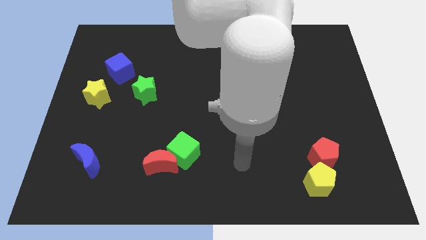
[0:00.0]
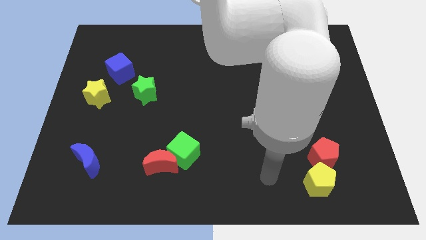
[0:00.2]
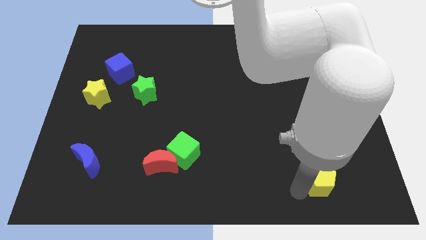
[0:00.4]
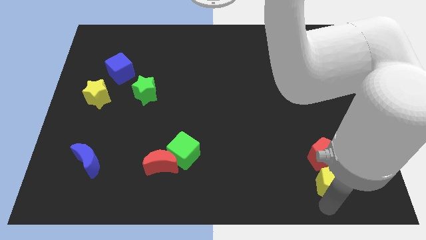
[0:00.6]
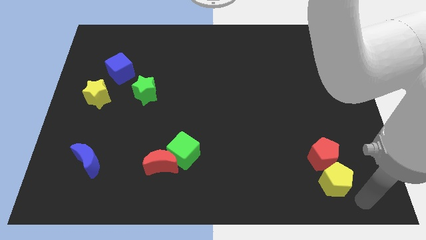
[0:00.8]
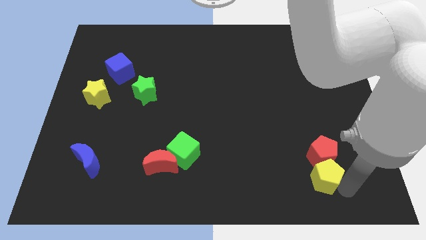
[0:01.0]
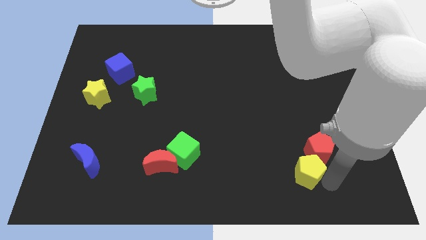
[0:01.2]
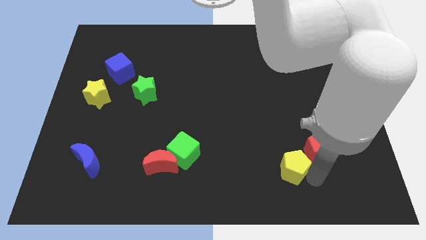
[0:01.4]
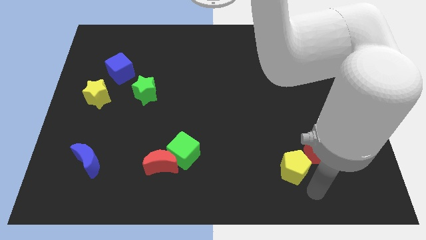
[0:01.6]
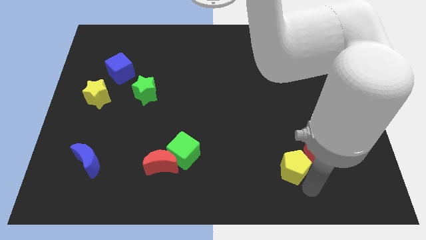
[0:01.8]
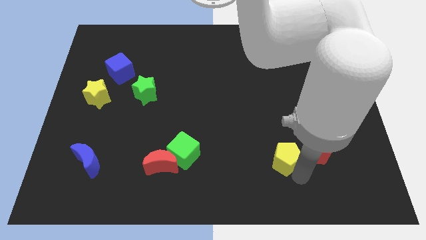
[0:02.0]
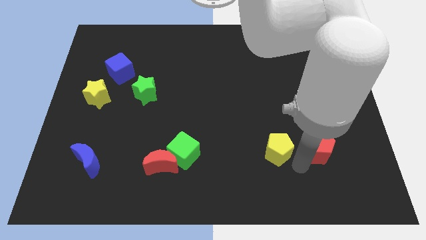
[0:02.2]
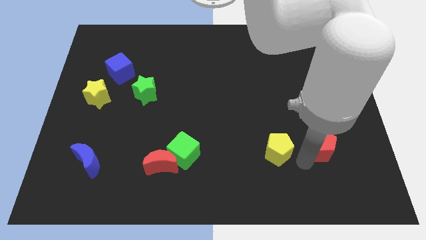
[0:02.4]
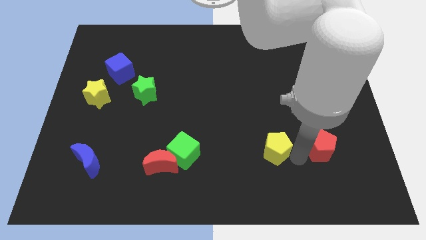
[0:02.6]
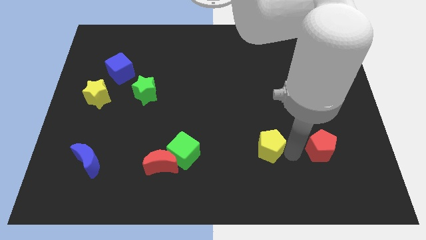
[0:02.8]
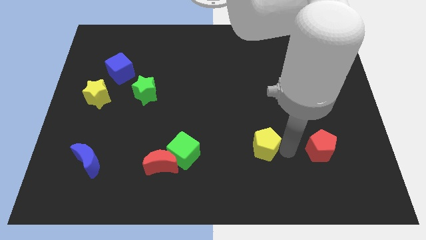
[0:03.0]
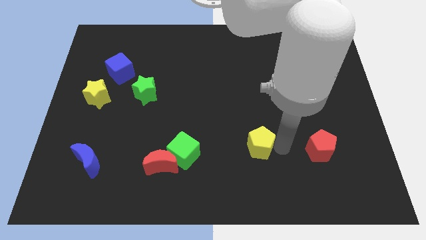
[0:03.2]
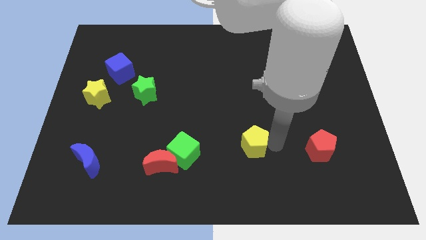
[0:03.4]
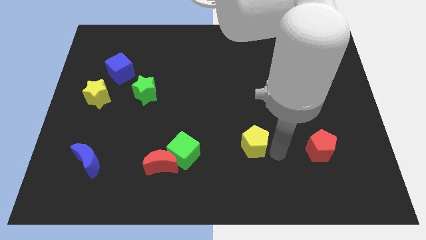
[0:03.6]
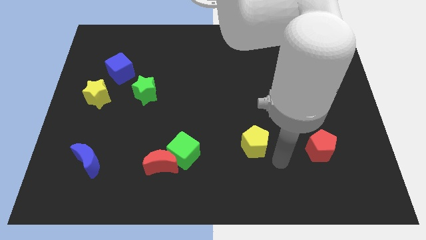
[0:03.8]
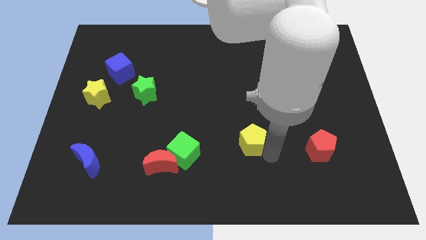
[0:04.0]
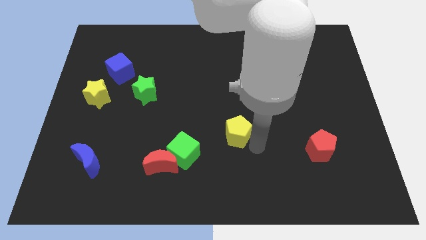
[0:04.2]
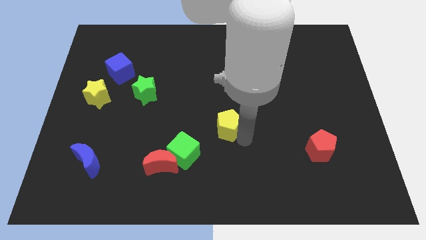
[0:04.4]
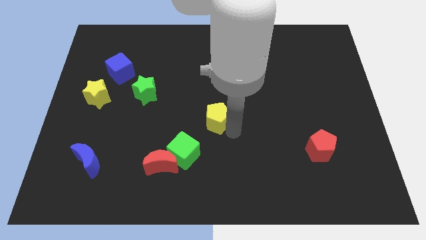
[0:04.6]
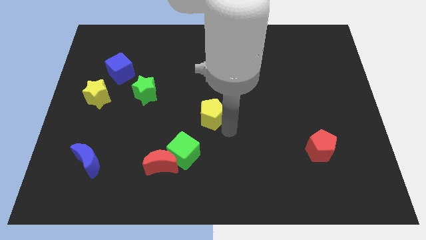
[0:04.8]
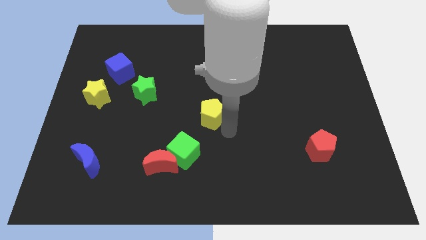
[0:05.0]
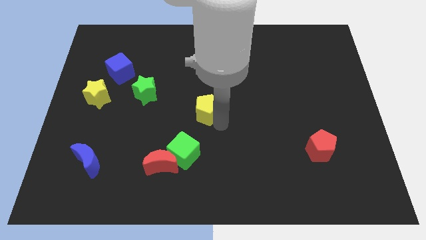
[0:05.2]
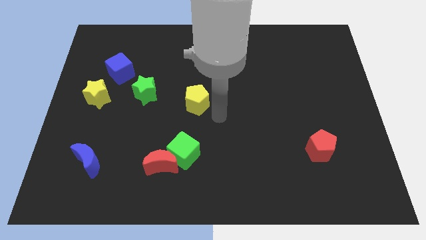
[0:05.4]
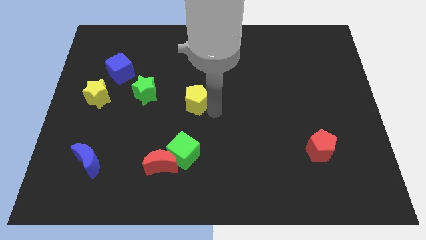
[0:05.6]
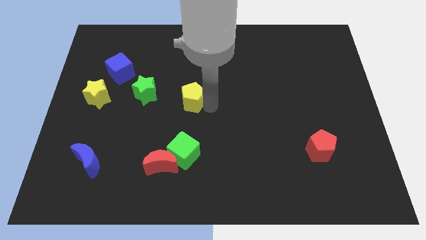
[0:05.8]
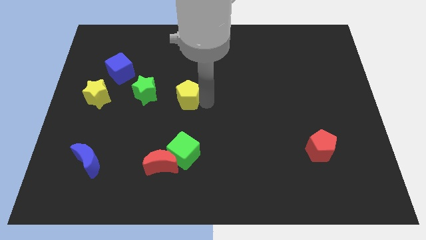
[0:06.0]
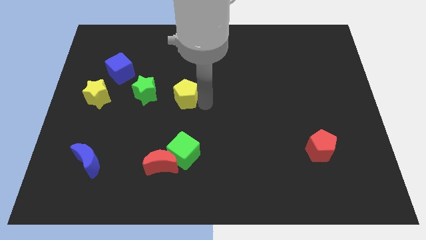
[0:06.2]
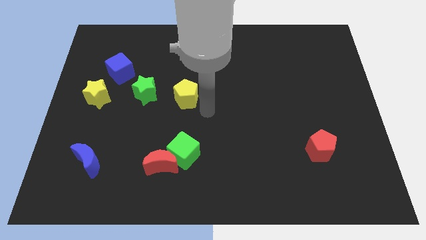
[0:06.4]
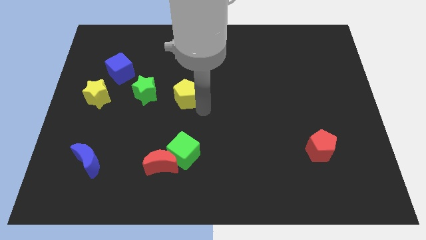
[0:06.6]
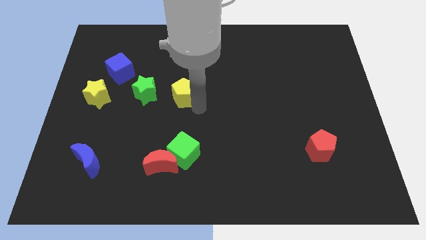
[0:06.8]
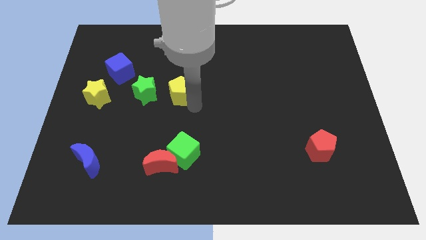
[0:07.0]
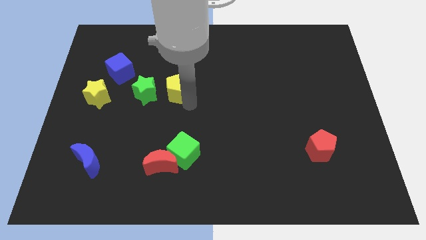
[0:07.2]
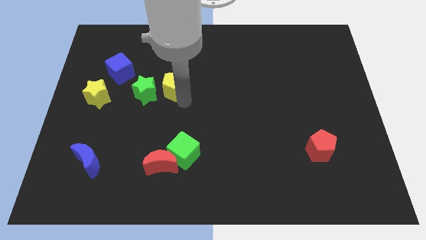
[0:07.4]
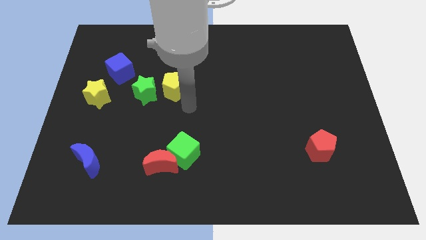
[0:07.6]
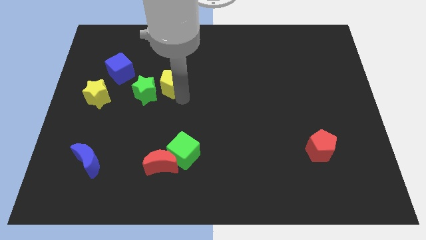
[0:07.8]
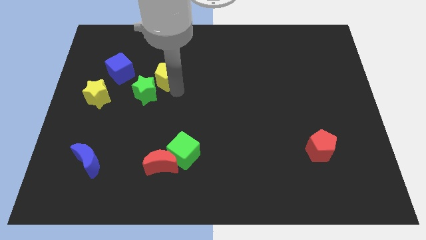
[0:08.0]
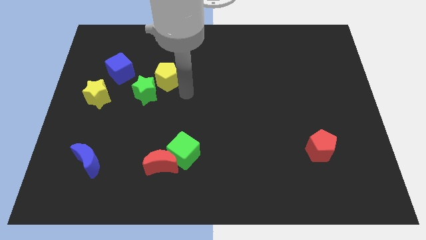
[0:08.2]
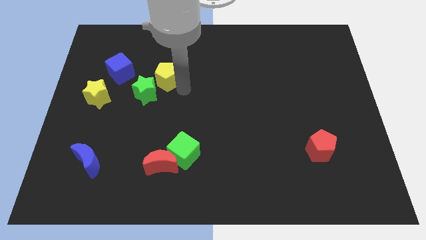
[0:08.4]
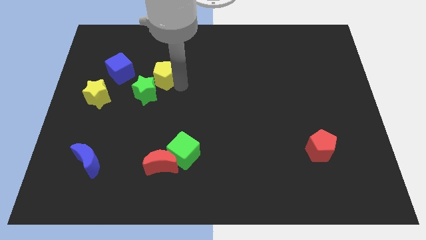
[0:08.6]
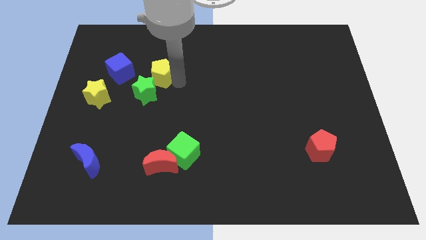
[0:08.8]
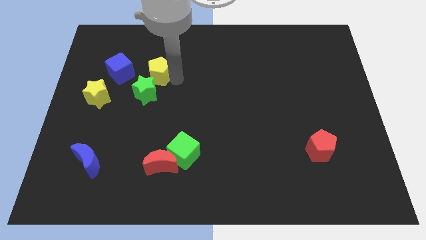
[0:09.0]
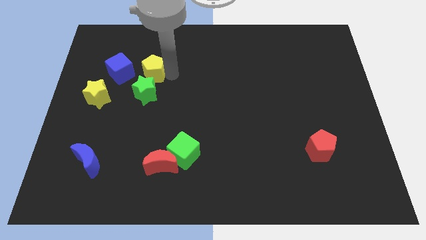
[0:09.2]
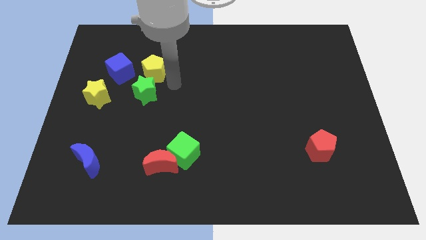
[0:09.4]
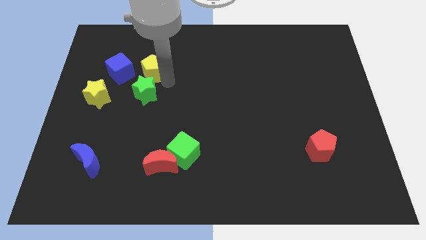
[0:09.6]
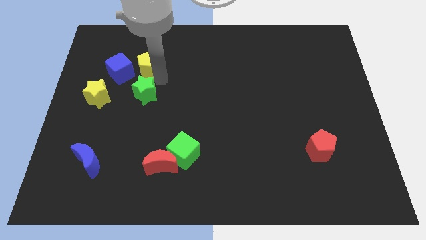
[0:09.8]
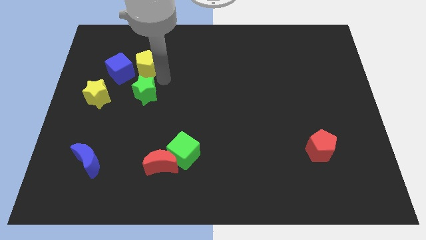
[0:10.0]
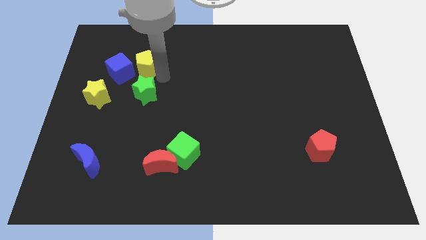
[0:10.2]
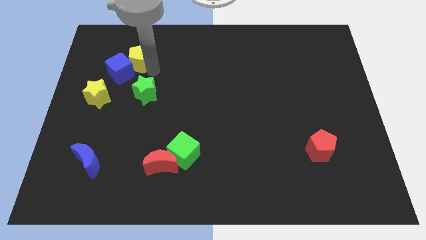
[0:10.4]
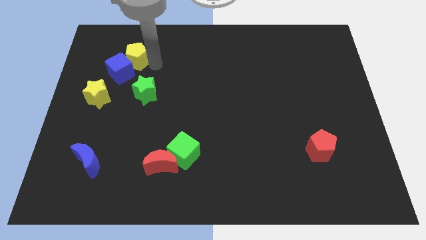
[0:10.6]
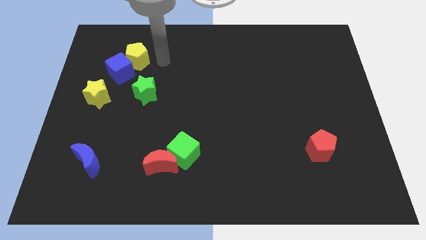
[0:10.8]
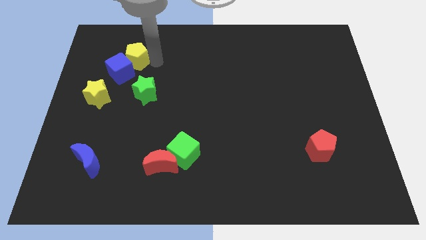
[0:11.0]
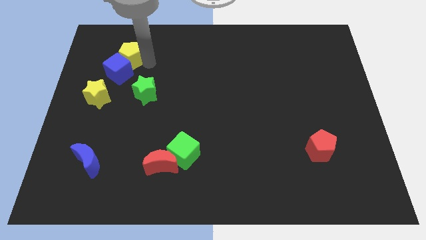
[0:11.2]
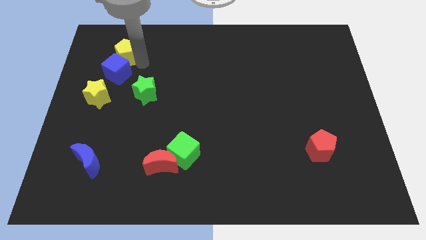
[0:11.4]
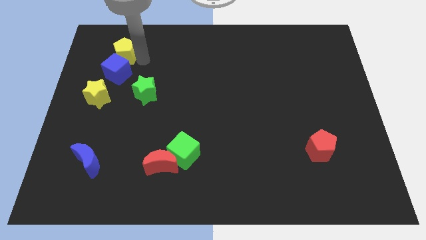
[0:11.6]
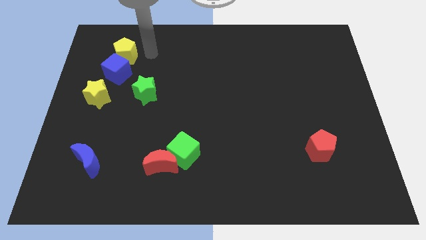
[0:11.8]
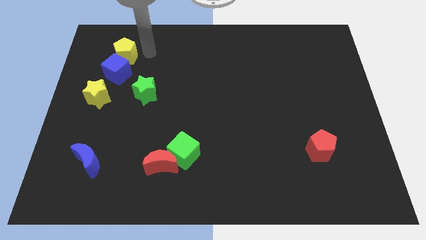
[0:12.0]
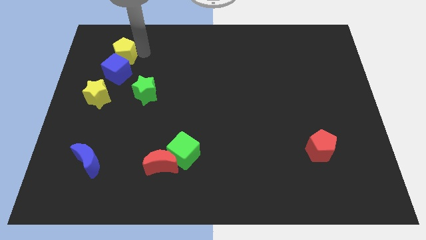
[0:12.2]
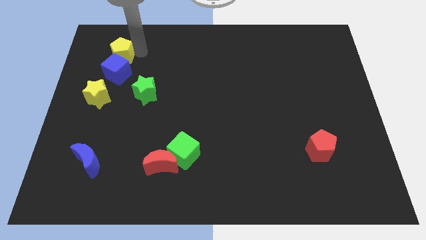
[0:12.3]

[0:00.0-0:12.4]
slide the yellow pentagon to the top left side of the blue cube

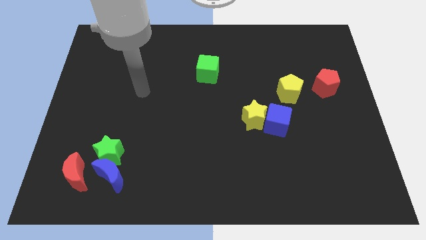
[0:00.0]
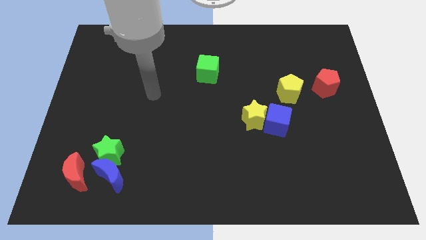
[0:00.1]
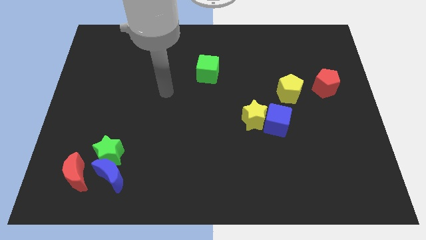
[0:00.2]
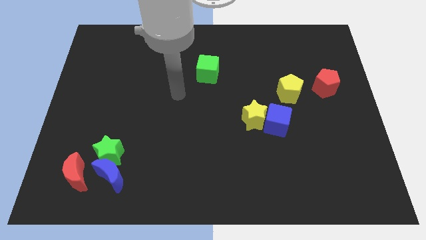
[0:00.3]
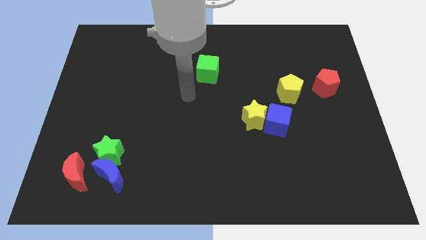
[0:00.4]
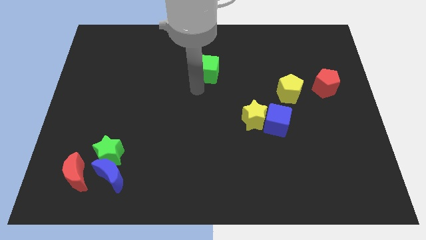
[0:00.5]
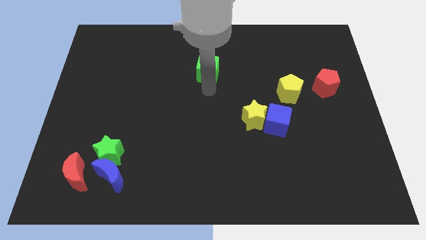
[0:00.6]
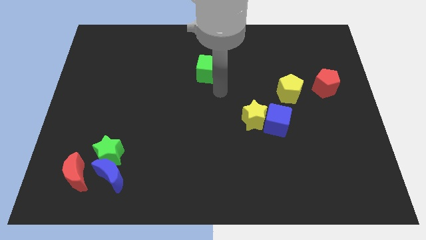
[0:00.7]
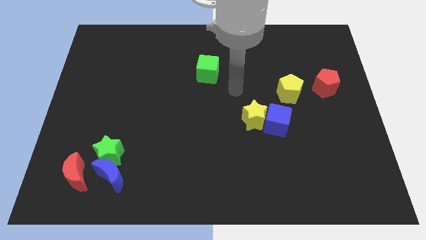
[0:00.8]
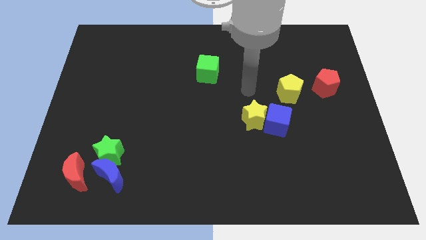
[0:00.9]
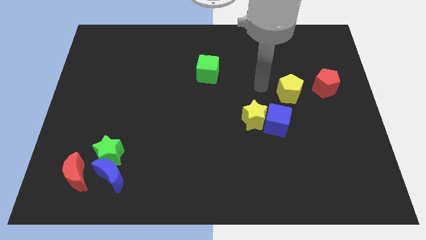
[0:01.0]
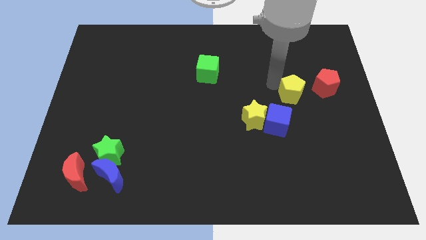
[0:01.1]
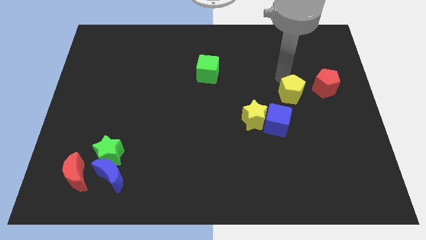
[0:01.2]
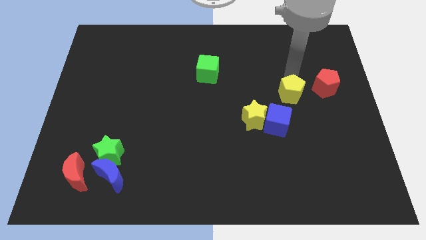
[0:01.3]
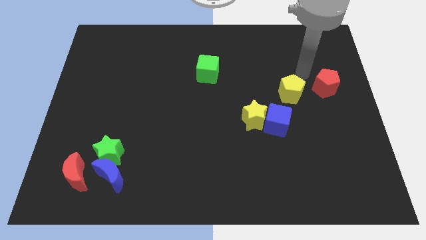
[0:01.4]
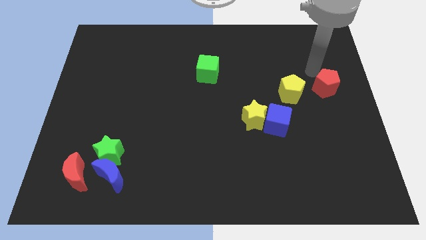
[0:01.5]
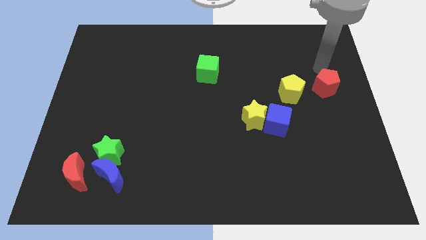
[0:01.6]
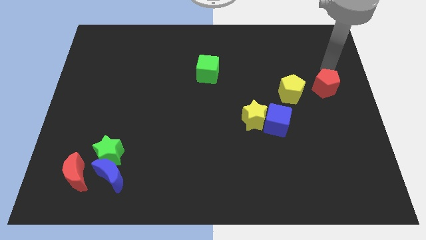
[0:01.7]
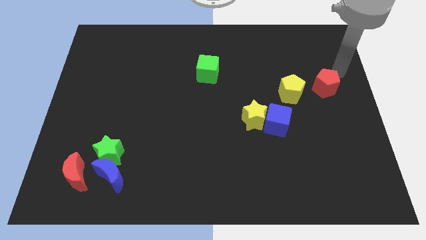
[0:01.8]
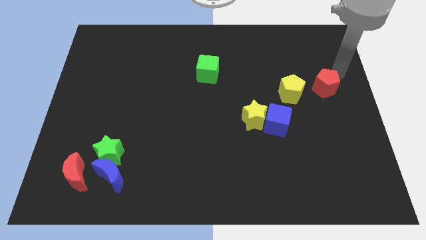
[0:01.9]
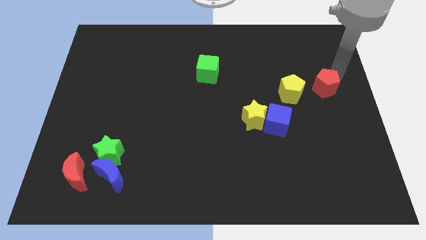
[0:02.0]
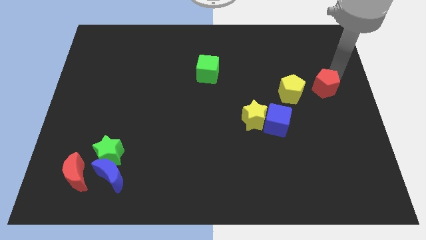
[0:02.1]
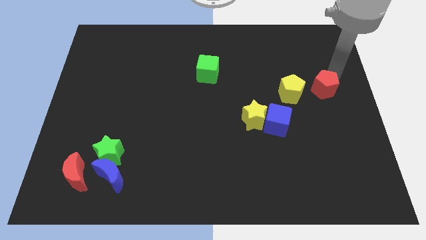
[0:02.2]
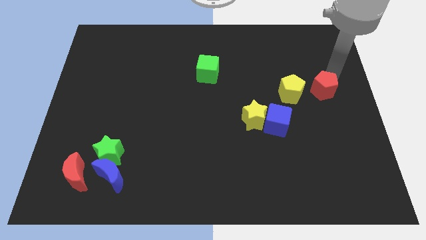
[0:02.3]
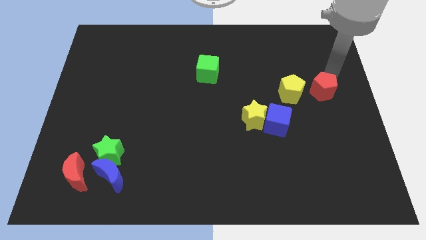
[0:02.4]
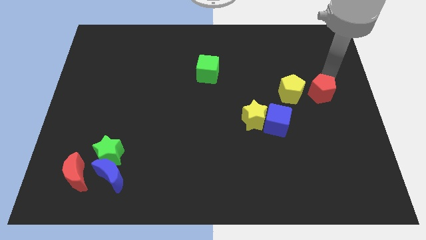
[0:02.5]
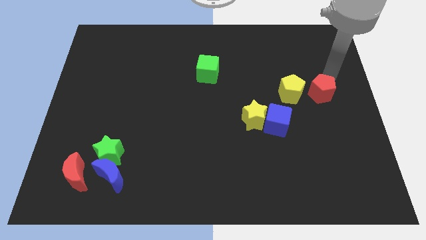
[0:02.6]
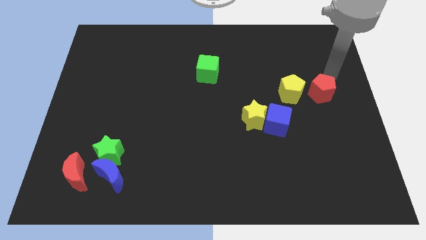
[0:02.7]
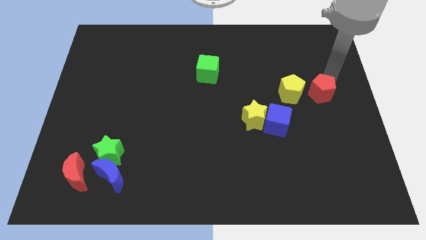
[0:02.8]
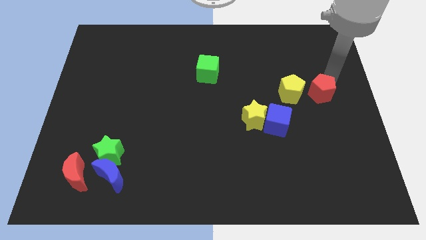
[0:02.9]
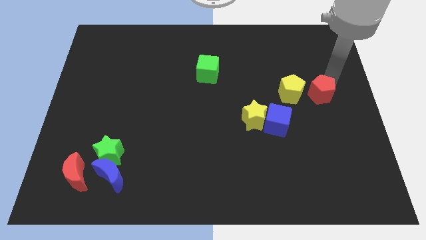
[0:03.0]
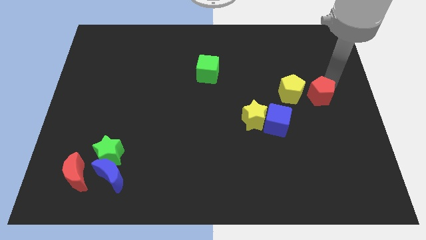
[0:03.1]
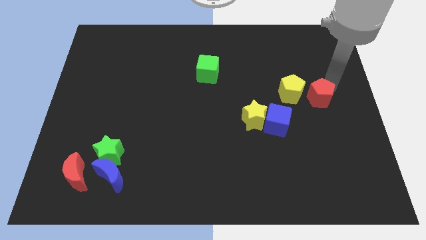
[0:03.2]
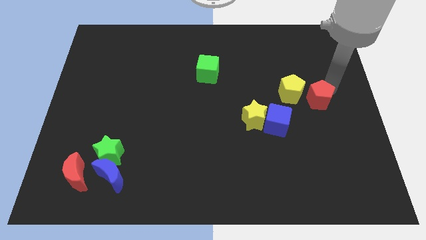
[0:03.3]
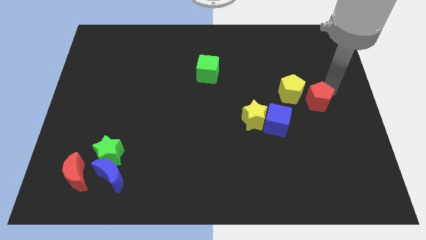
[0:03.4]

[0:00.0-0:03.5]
push the red pentagon to the top right of the blue cube
